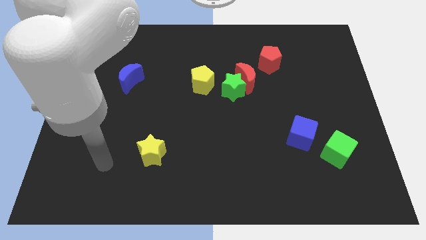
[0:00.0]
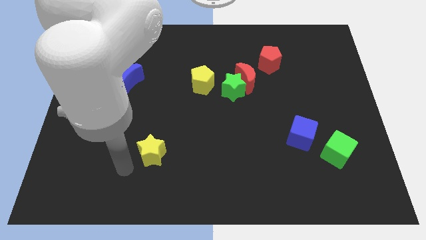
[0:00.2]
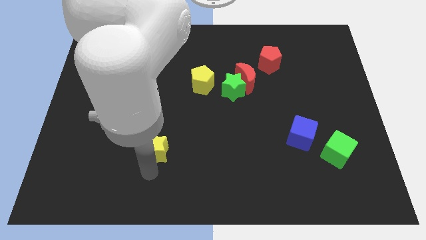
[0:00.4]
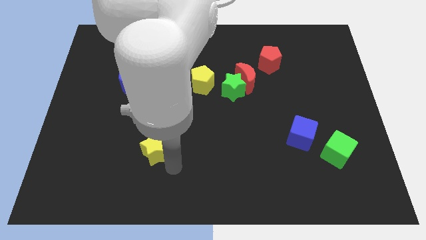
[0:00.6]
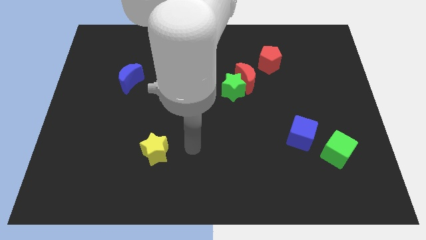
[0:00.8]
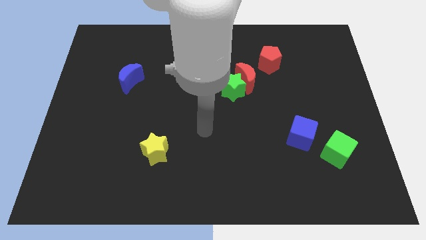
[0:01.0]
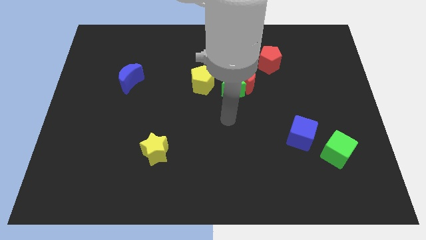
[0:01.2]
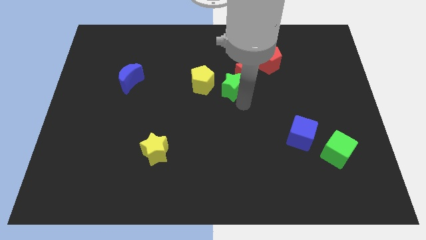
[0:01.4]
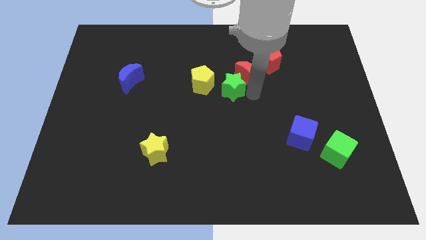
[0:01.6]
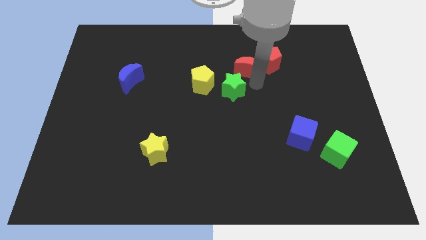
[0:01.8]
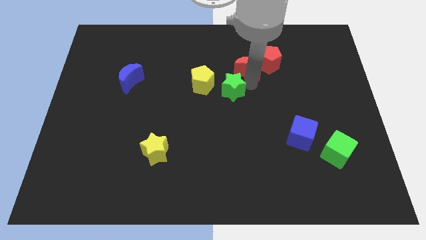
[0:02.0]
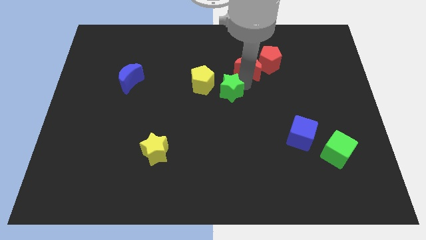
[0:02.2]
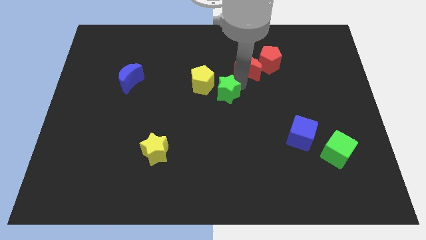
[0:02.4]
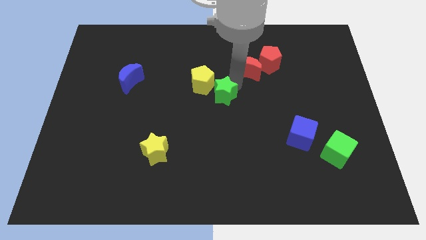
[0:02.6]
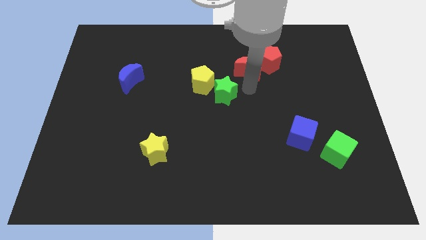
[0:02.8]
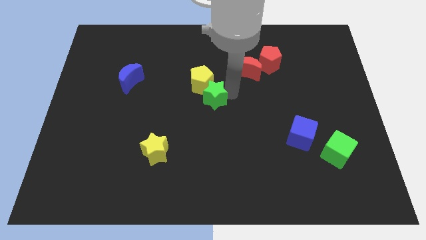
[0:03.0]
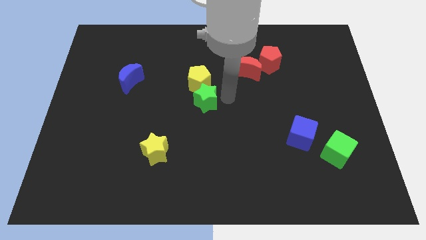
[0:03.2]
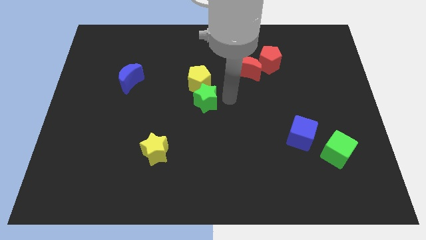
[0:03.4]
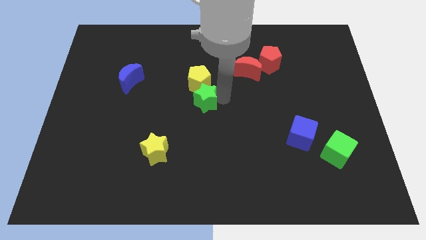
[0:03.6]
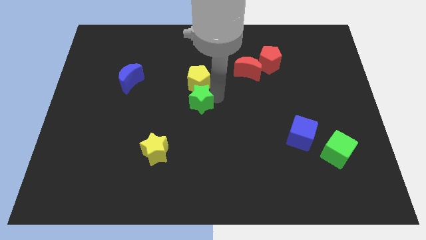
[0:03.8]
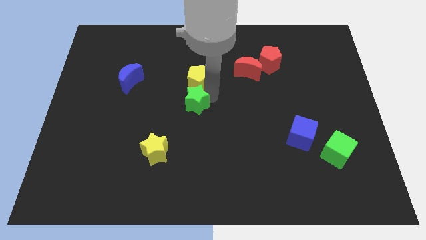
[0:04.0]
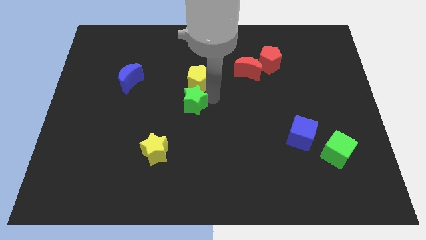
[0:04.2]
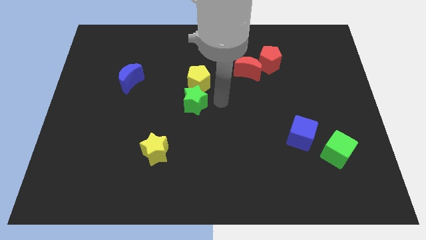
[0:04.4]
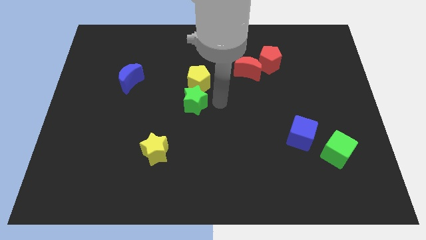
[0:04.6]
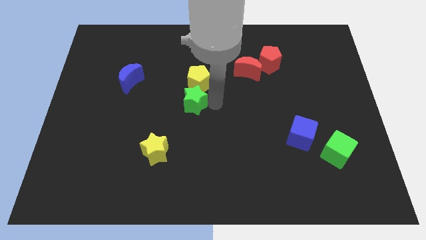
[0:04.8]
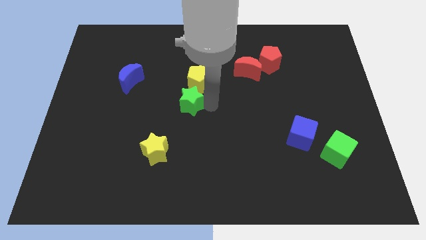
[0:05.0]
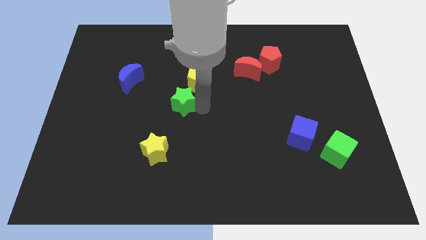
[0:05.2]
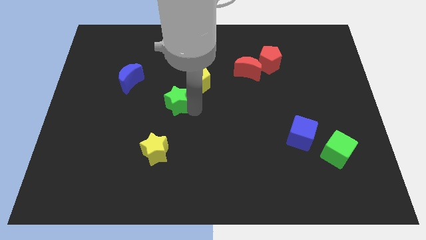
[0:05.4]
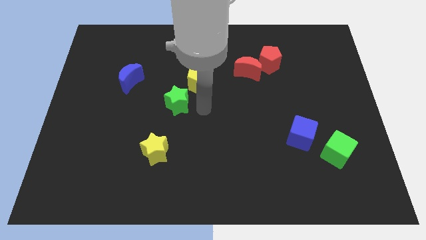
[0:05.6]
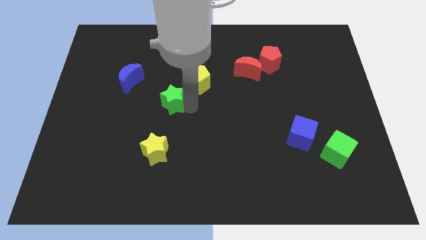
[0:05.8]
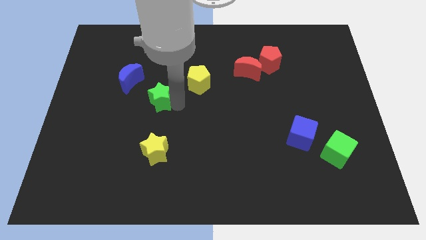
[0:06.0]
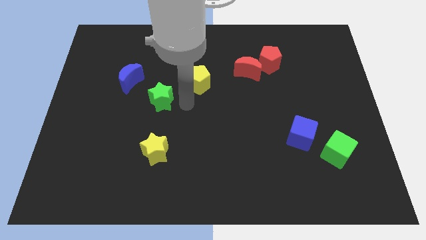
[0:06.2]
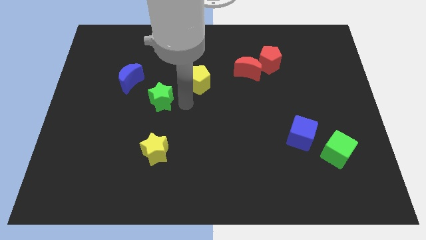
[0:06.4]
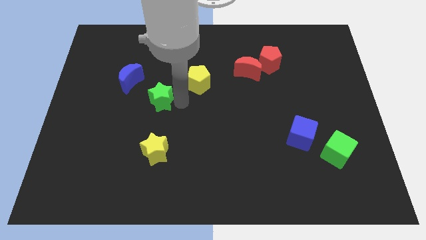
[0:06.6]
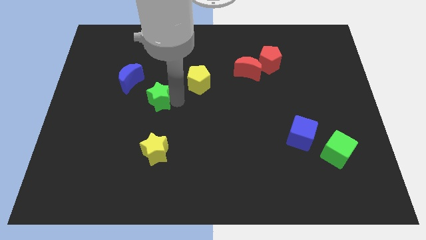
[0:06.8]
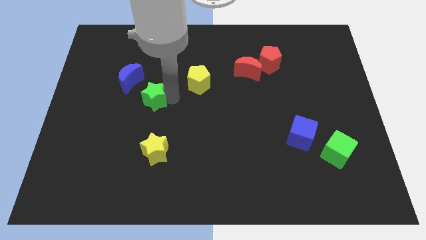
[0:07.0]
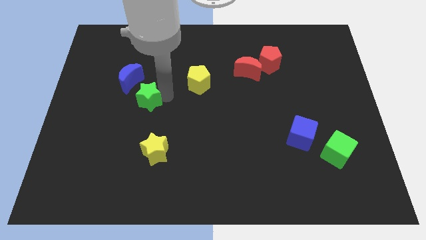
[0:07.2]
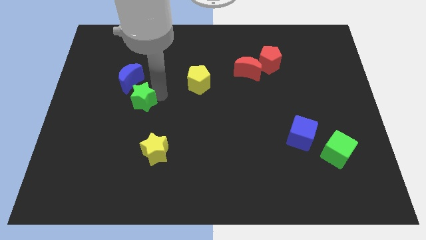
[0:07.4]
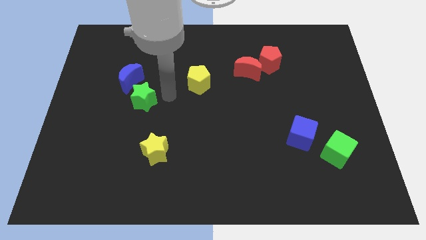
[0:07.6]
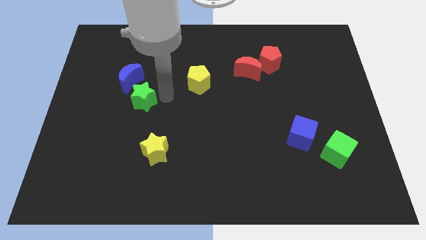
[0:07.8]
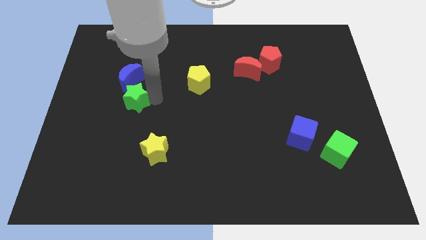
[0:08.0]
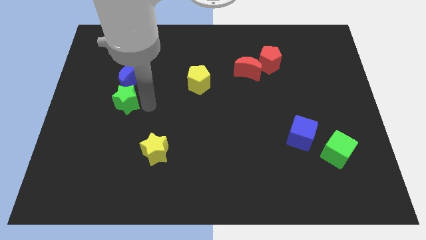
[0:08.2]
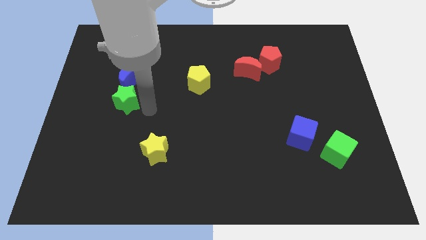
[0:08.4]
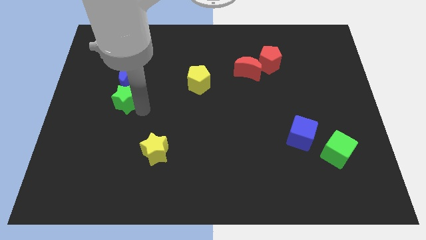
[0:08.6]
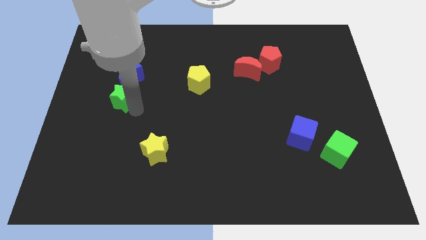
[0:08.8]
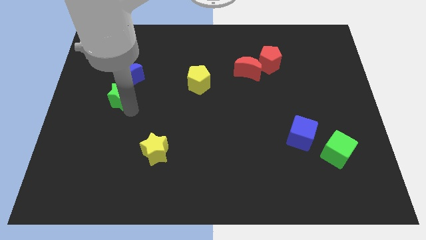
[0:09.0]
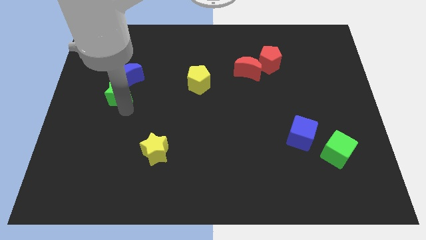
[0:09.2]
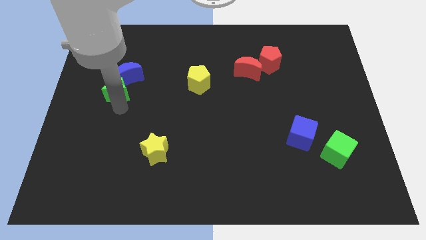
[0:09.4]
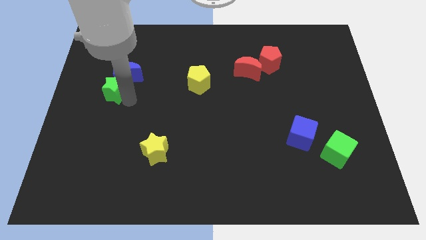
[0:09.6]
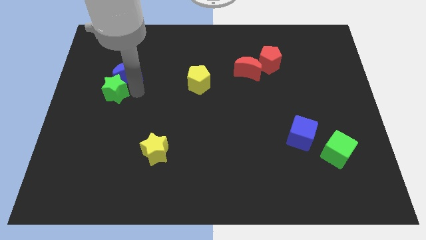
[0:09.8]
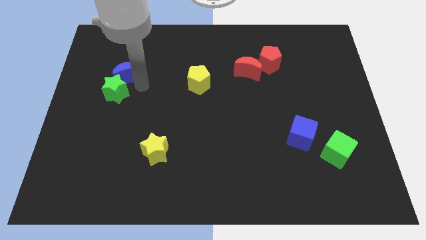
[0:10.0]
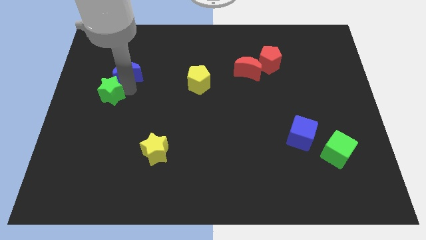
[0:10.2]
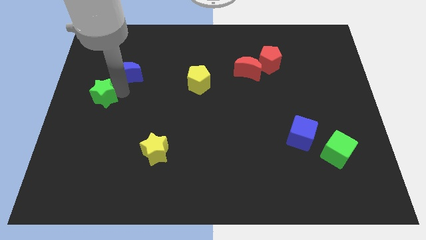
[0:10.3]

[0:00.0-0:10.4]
put the green star to the left side

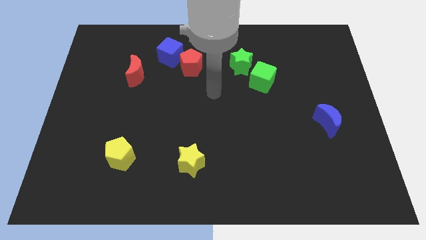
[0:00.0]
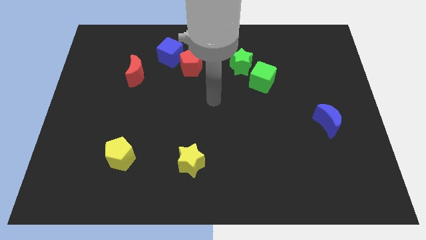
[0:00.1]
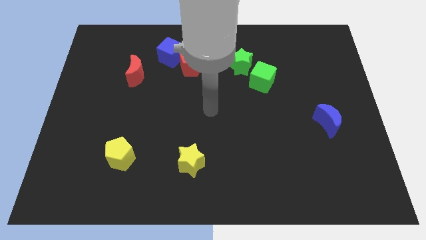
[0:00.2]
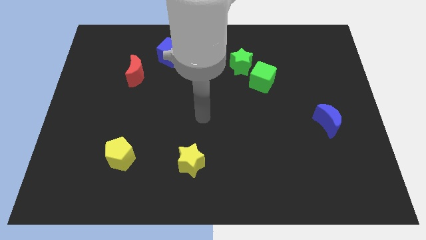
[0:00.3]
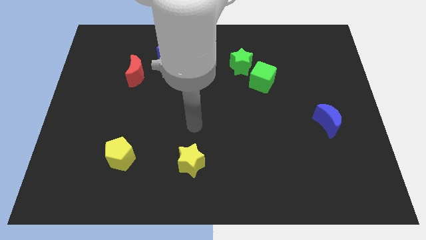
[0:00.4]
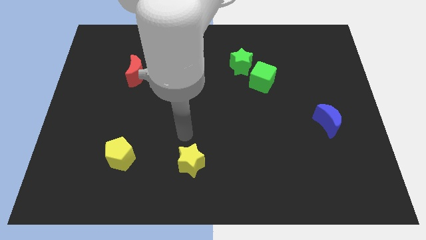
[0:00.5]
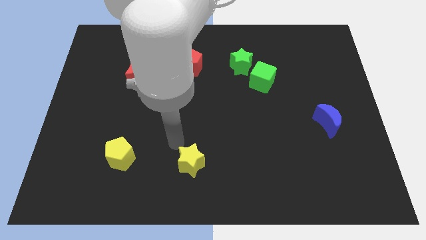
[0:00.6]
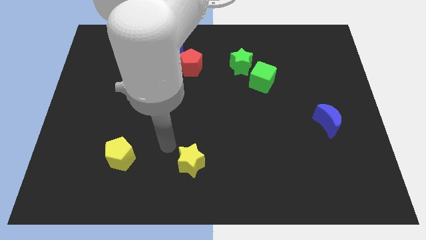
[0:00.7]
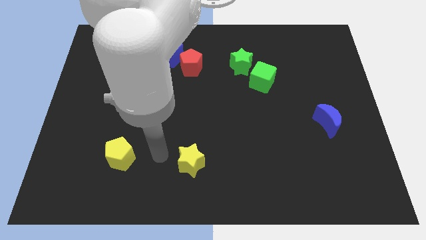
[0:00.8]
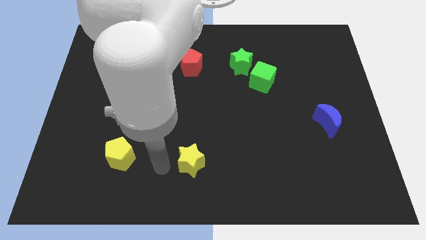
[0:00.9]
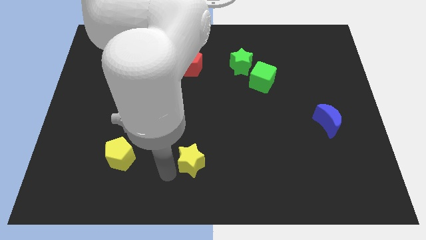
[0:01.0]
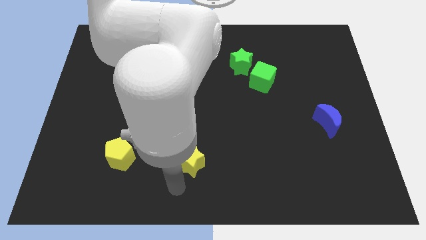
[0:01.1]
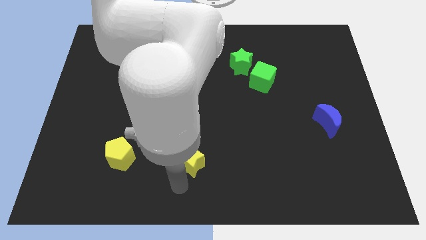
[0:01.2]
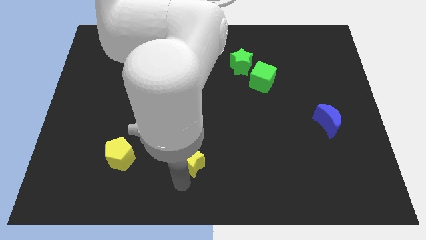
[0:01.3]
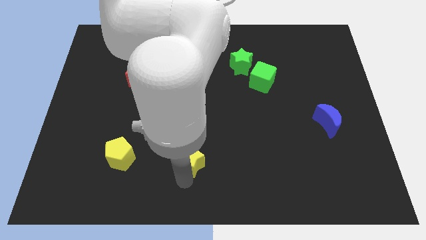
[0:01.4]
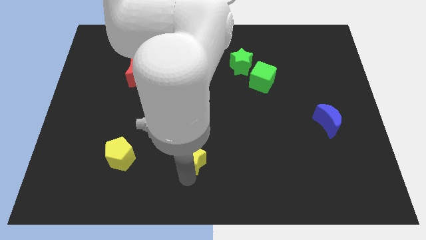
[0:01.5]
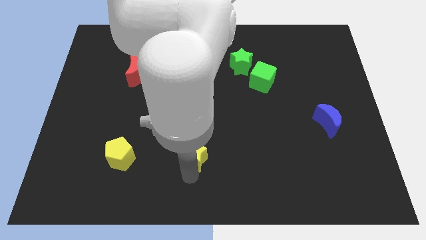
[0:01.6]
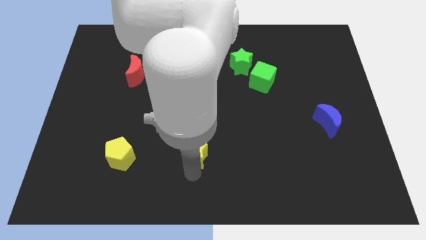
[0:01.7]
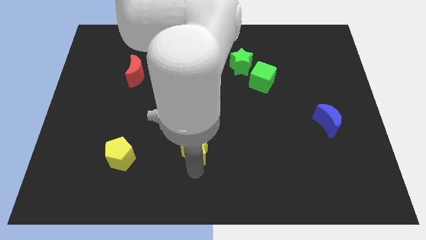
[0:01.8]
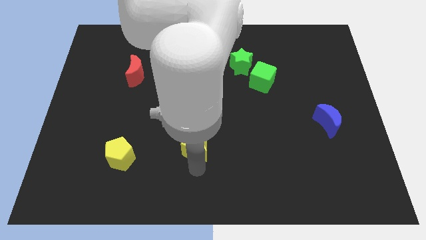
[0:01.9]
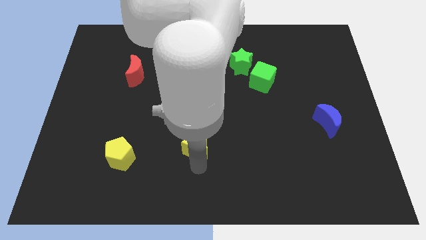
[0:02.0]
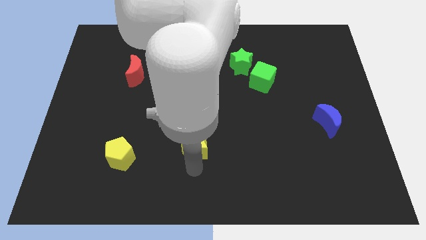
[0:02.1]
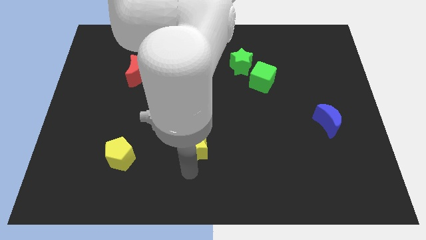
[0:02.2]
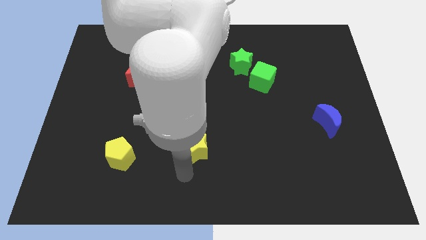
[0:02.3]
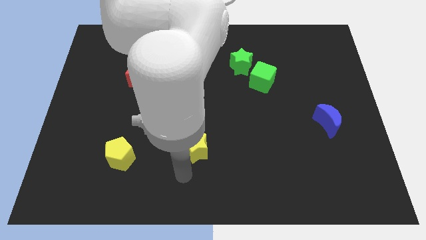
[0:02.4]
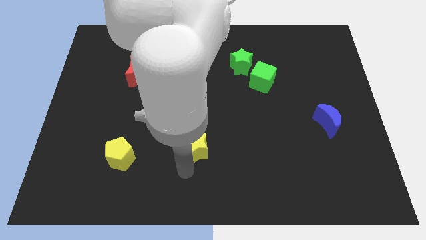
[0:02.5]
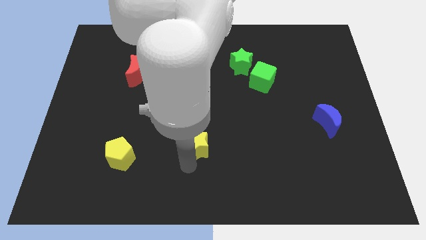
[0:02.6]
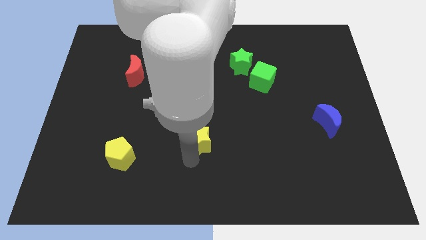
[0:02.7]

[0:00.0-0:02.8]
push the yellow star to the center
